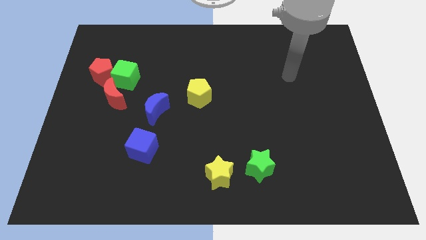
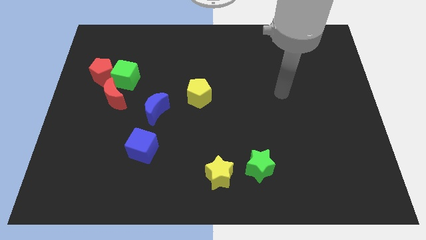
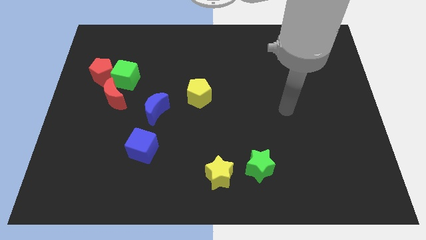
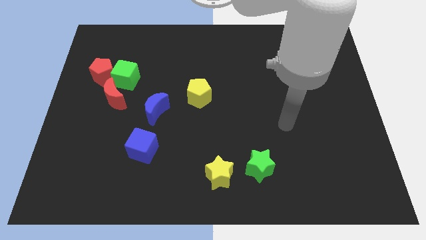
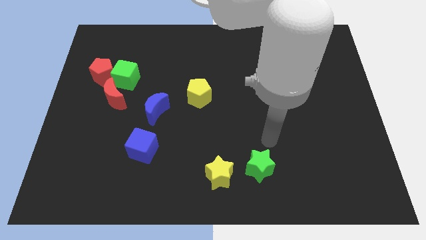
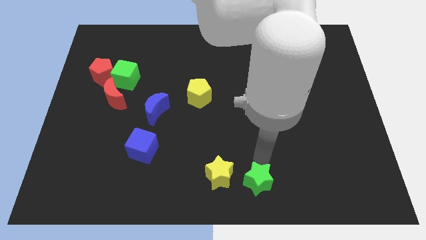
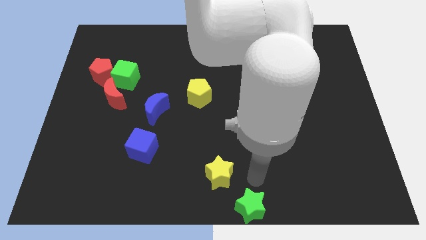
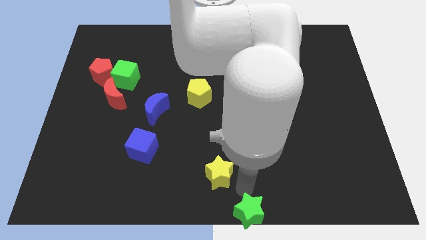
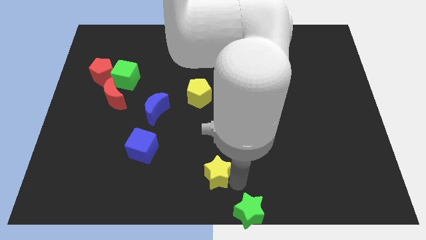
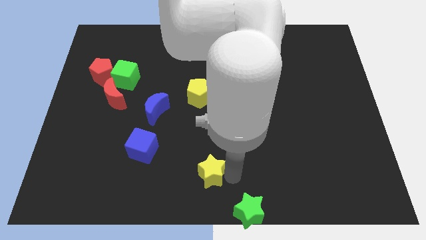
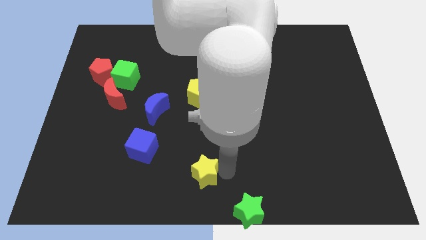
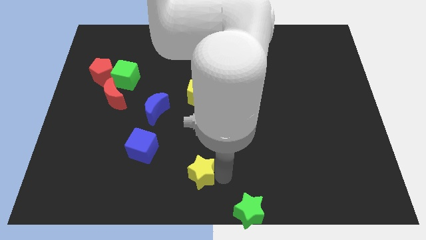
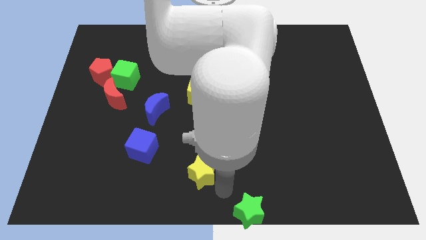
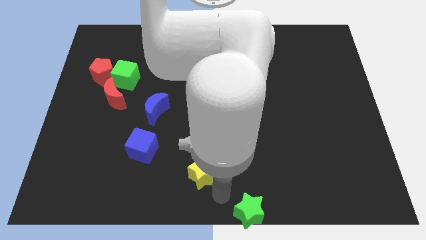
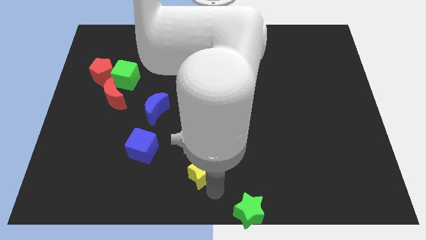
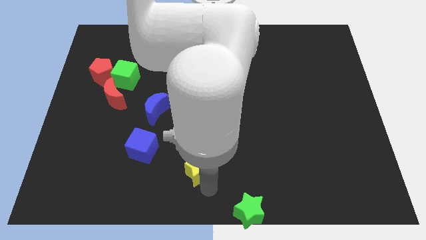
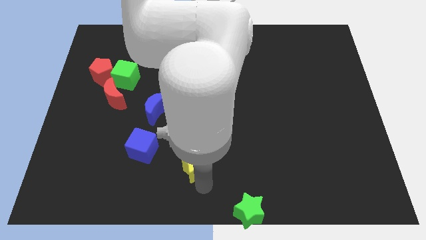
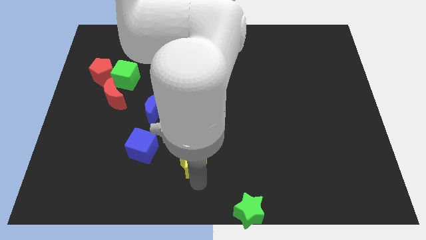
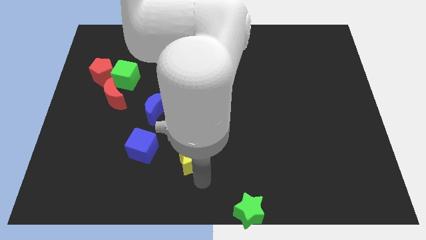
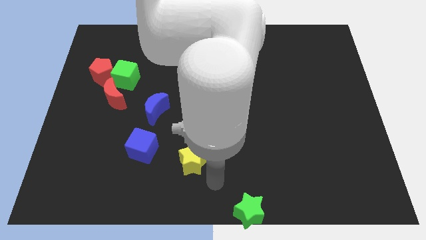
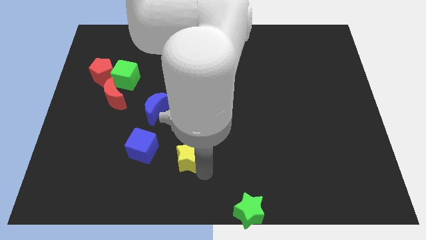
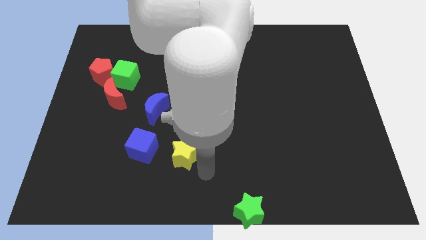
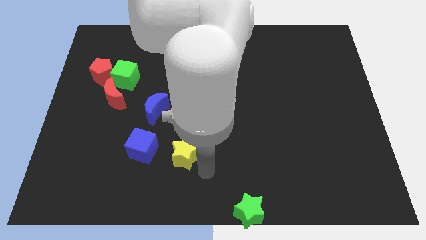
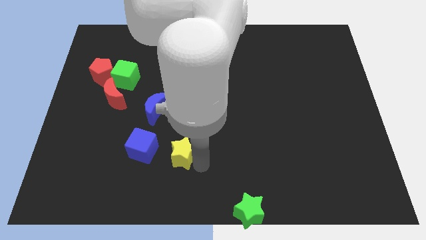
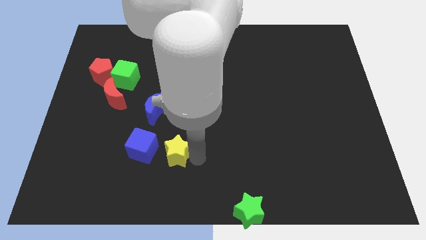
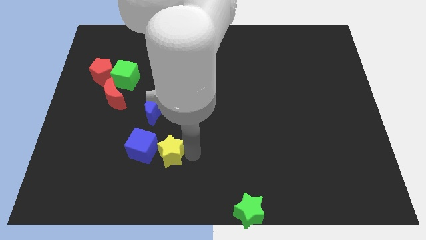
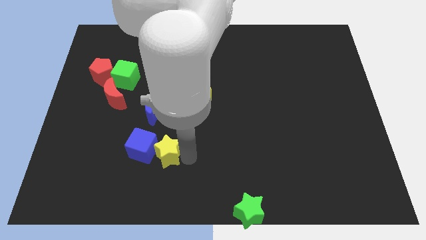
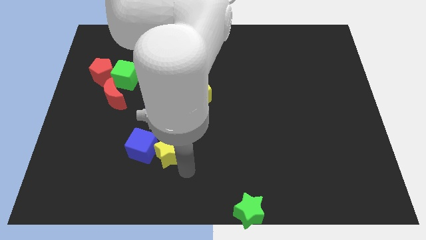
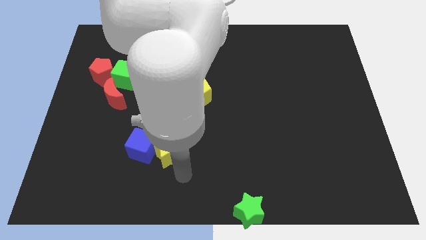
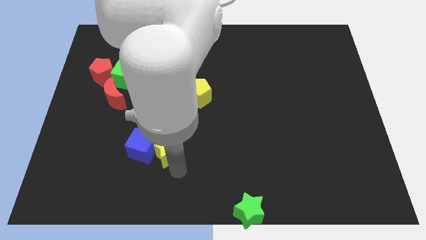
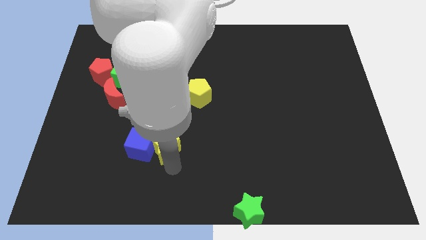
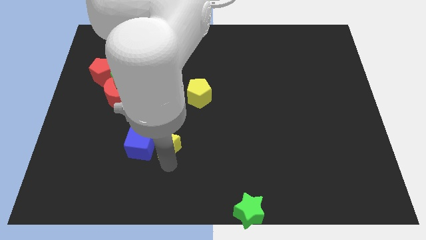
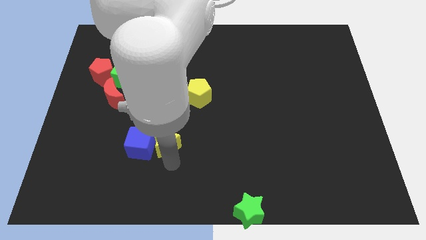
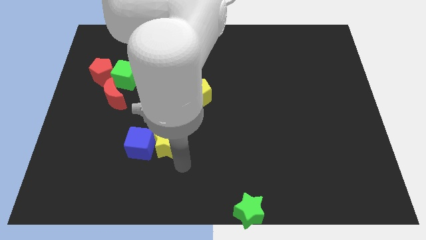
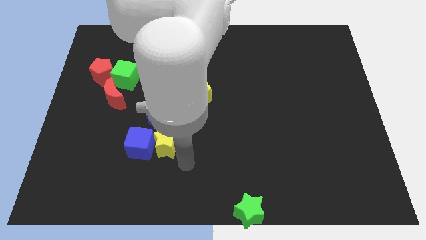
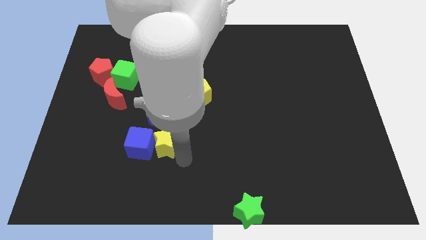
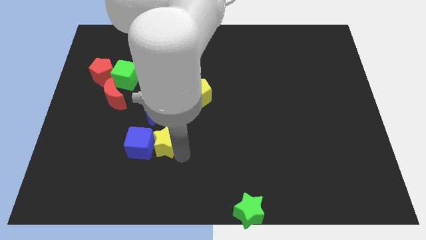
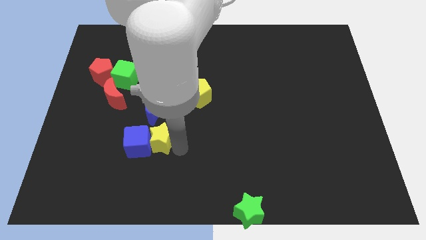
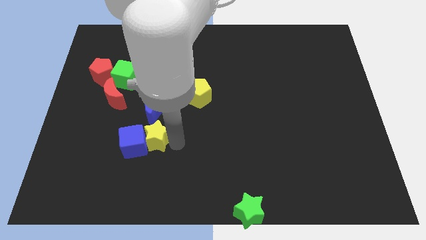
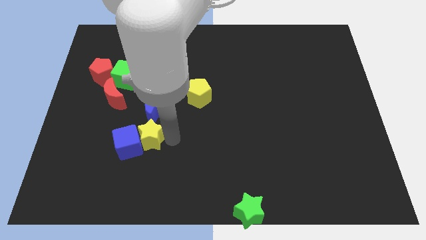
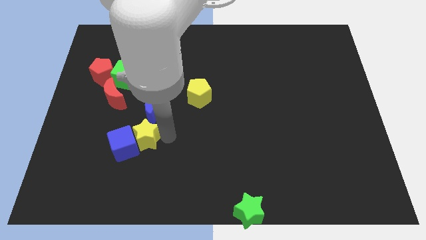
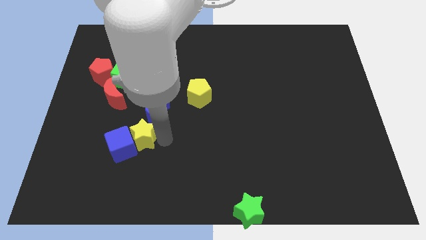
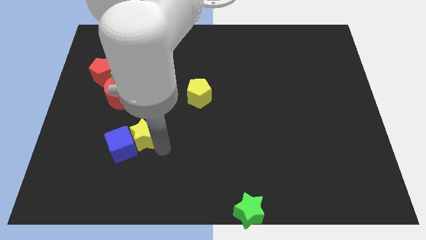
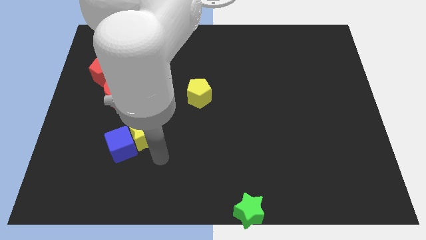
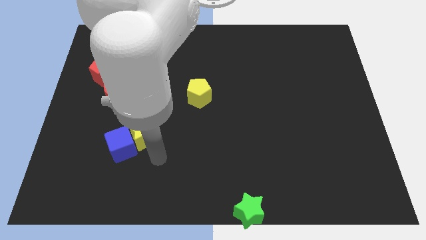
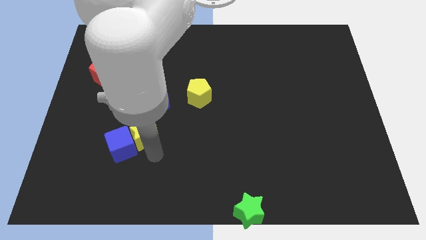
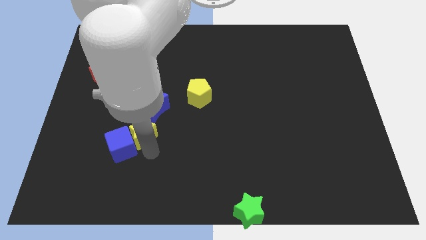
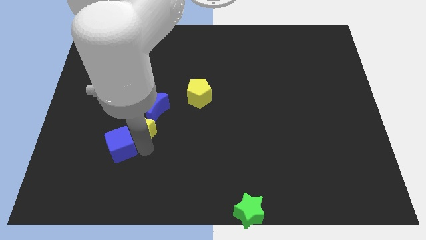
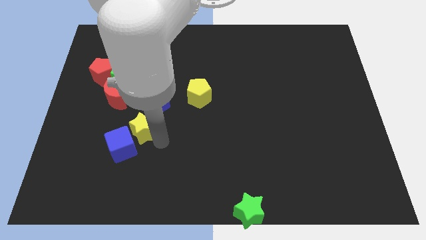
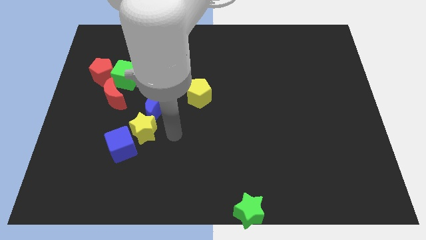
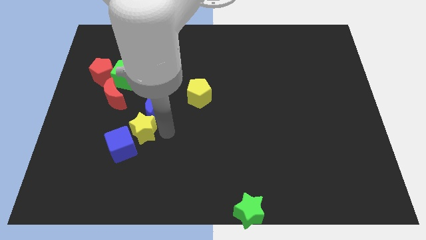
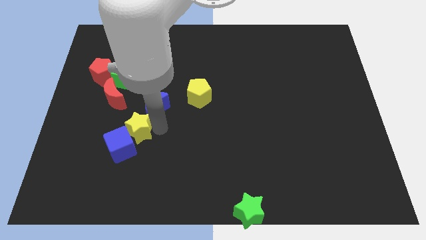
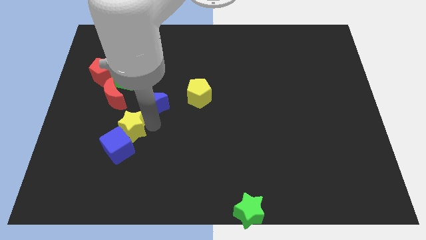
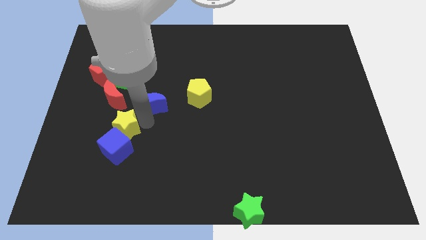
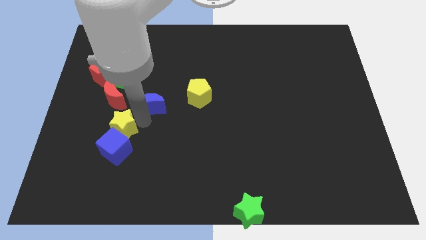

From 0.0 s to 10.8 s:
put the yellow star to the top left of the blue cube
